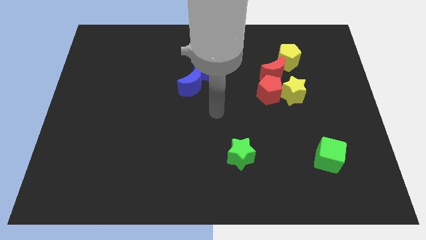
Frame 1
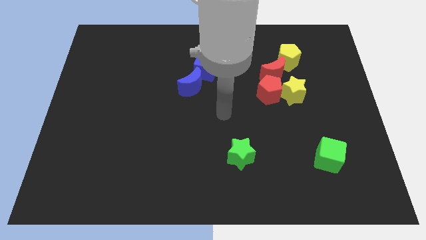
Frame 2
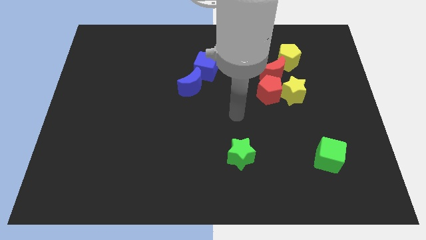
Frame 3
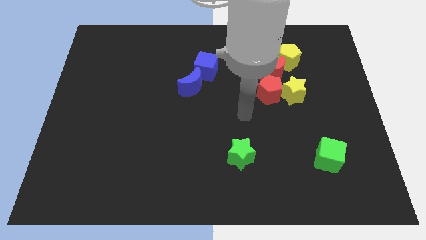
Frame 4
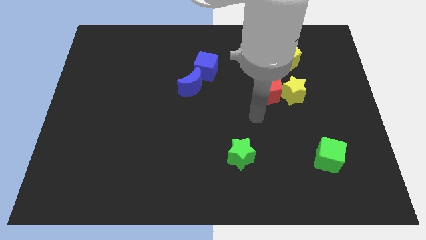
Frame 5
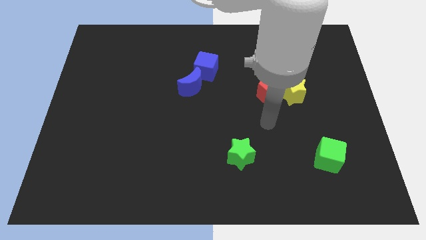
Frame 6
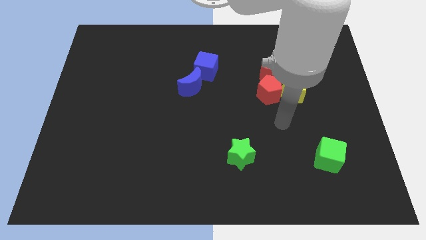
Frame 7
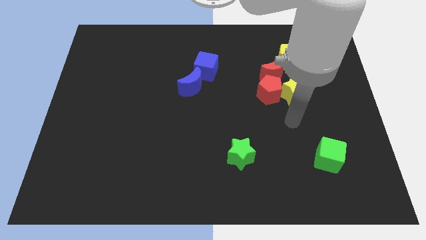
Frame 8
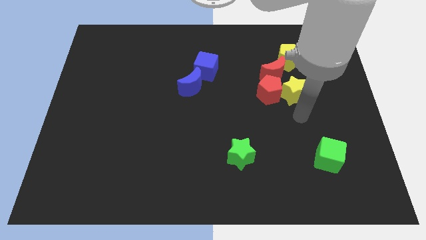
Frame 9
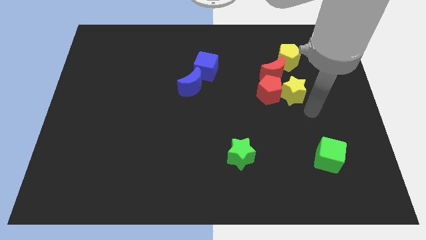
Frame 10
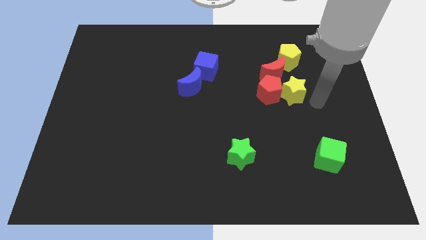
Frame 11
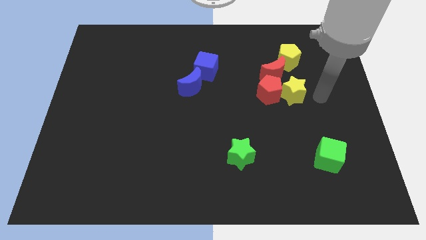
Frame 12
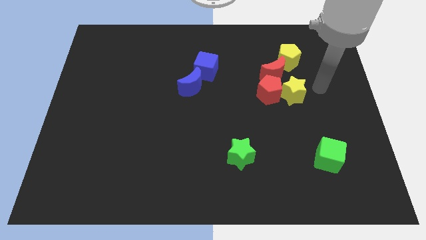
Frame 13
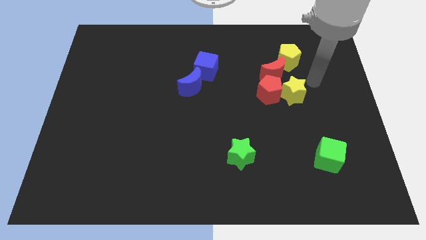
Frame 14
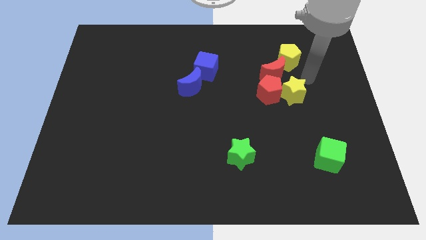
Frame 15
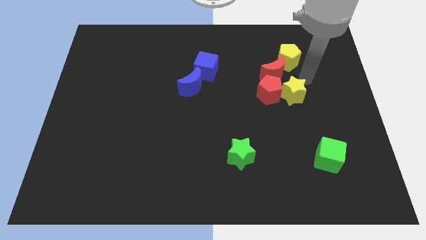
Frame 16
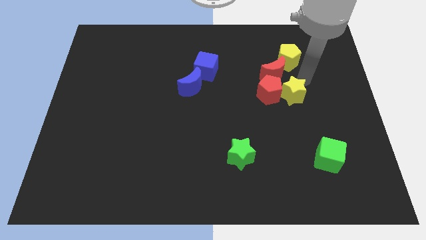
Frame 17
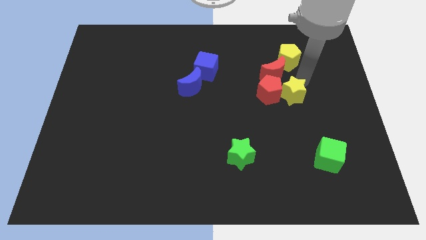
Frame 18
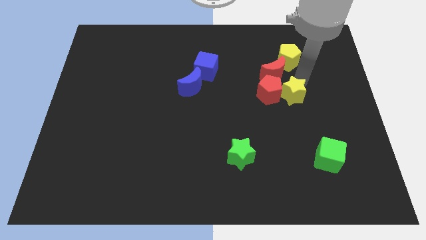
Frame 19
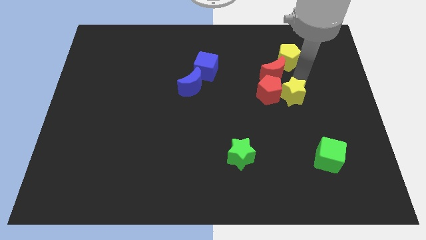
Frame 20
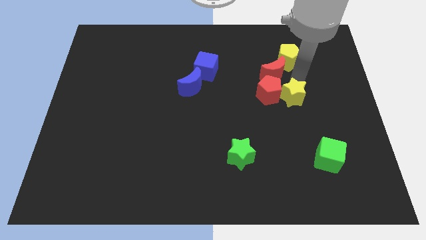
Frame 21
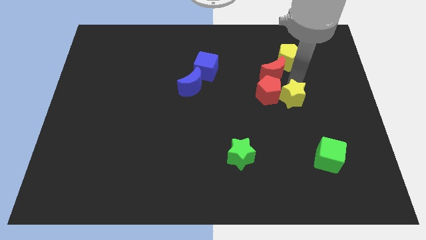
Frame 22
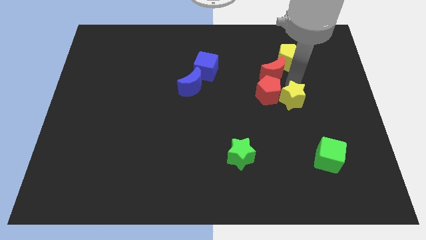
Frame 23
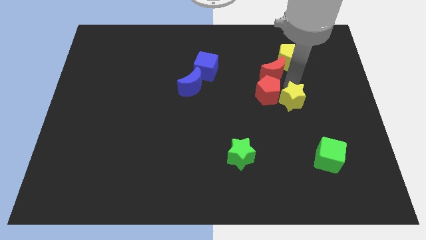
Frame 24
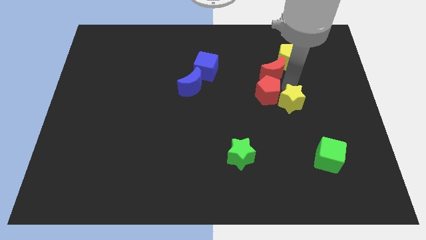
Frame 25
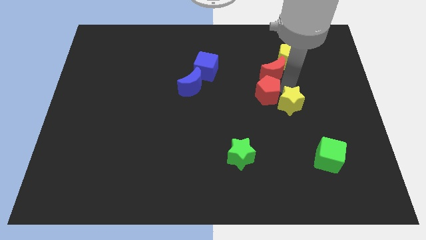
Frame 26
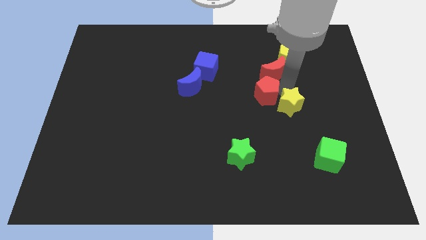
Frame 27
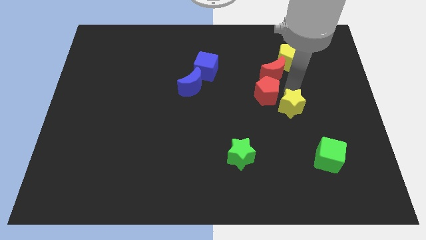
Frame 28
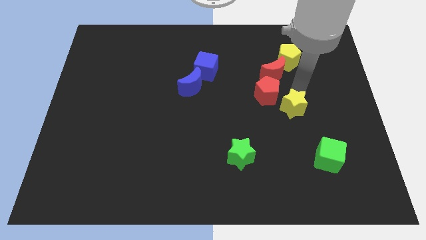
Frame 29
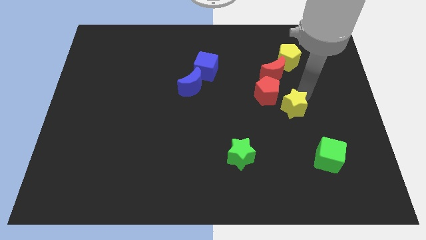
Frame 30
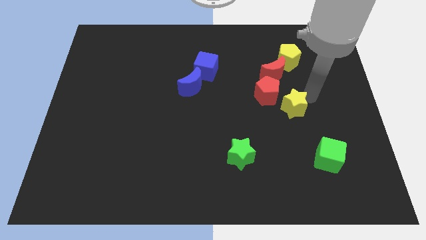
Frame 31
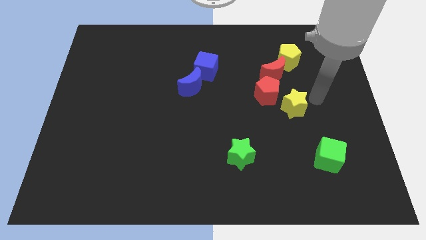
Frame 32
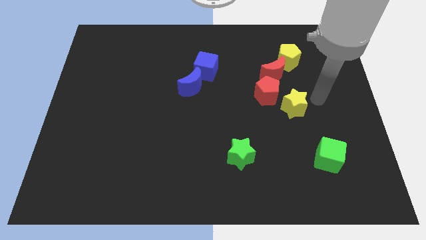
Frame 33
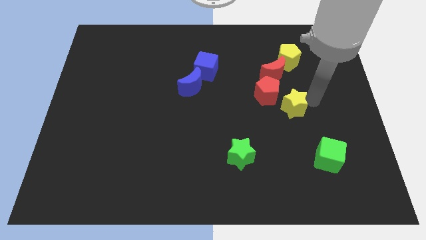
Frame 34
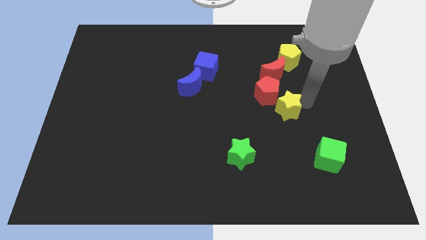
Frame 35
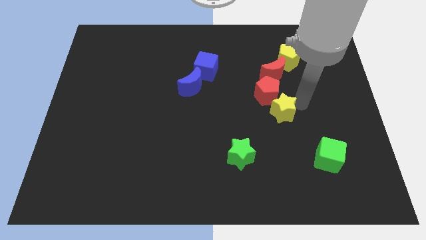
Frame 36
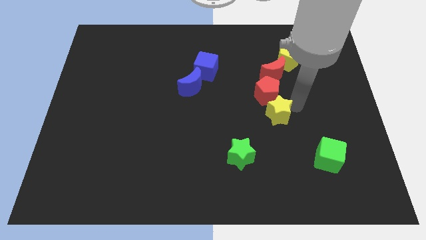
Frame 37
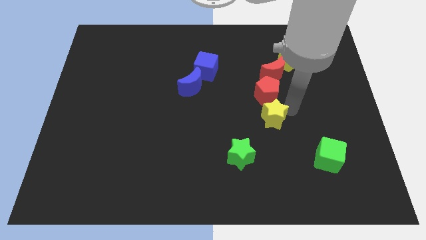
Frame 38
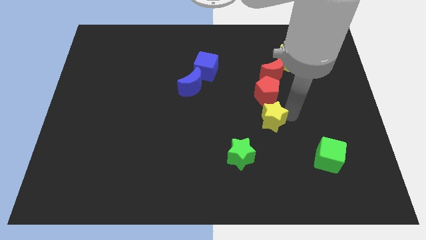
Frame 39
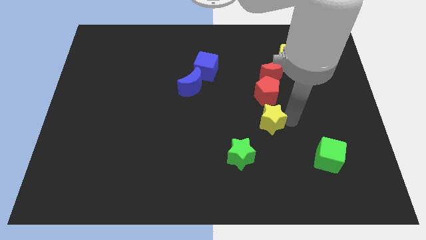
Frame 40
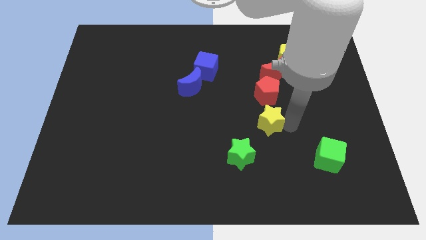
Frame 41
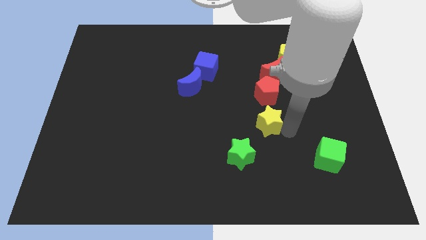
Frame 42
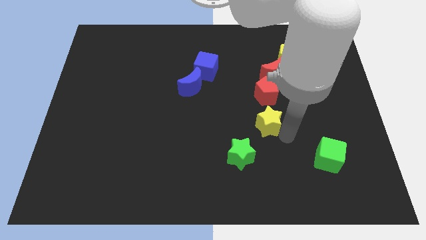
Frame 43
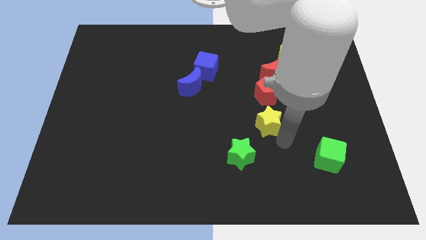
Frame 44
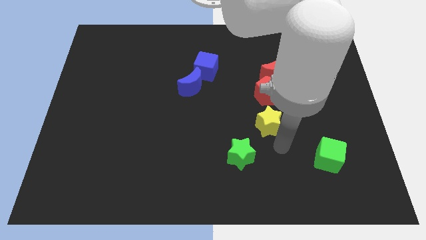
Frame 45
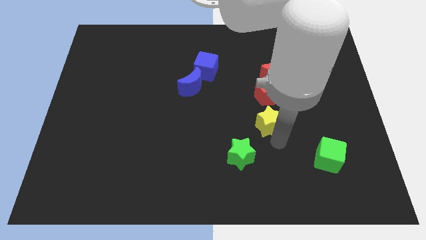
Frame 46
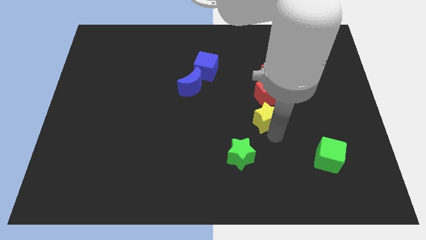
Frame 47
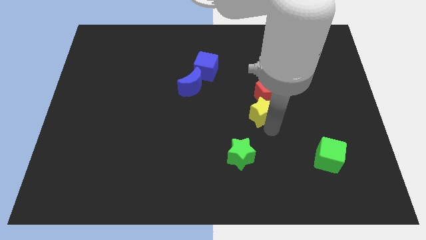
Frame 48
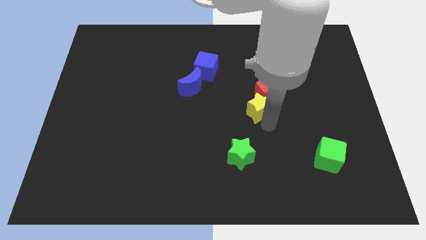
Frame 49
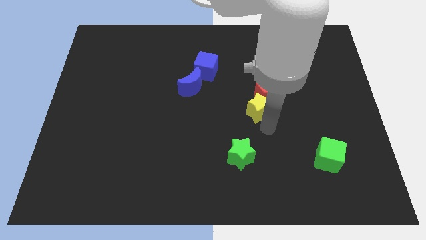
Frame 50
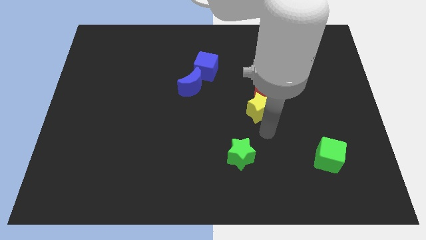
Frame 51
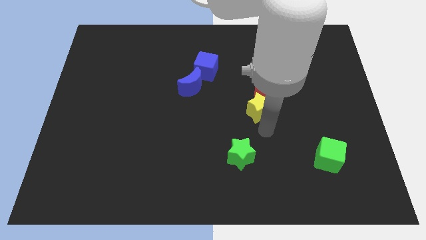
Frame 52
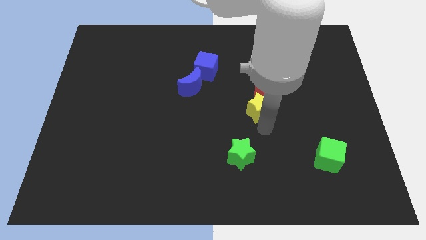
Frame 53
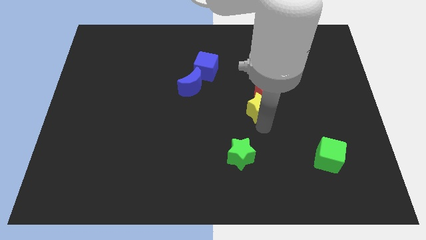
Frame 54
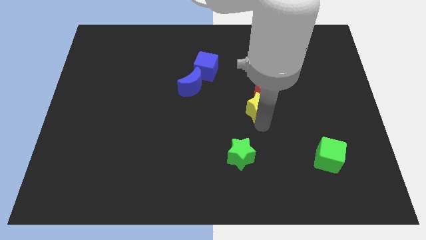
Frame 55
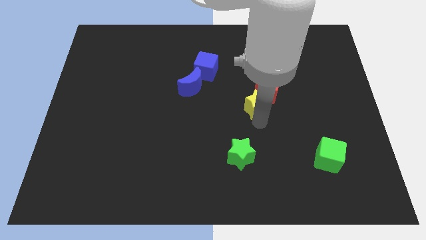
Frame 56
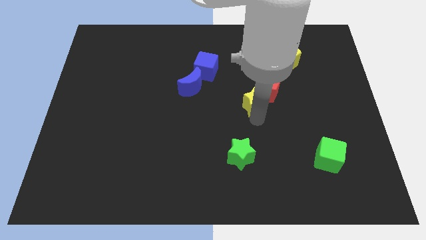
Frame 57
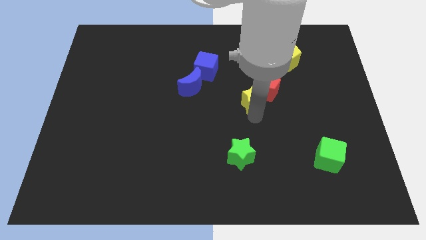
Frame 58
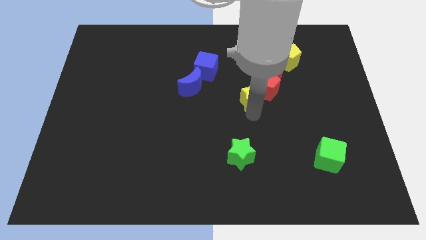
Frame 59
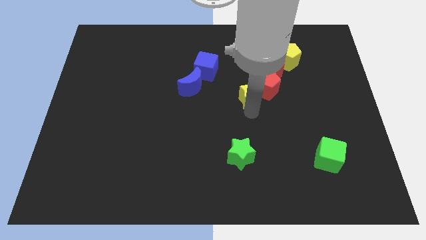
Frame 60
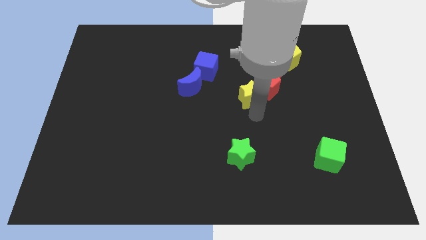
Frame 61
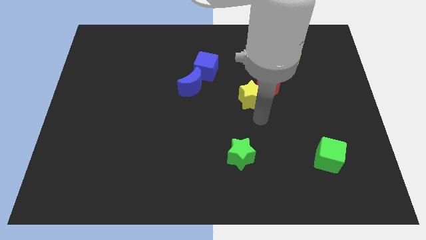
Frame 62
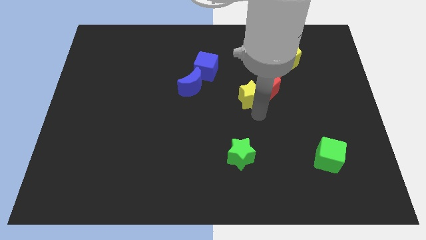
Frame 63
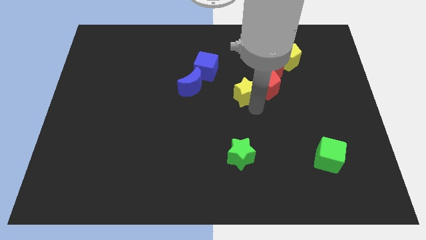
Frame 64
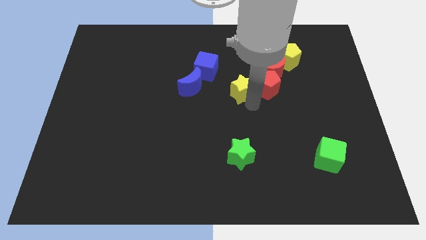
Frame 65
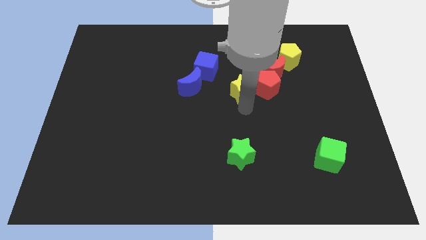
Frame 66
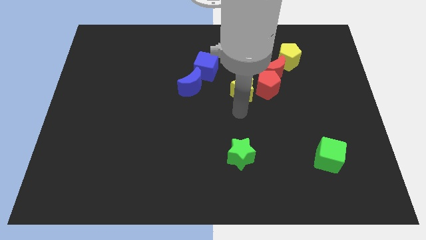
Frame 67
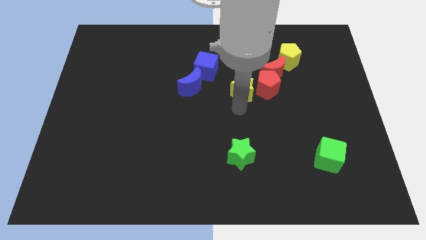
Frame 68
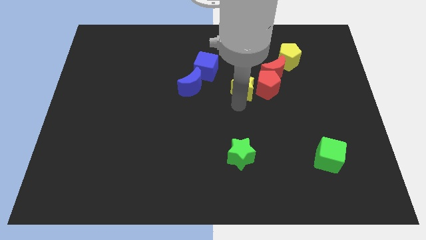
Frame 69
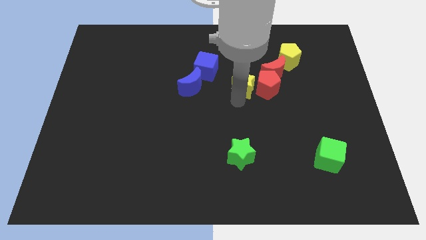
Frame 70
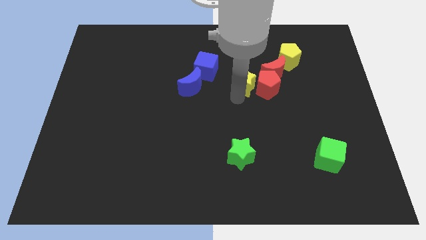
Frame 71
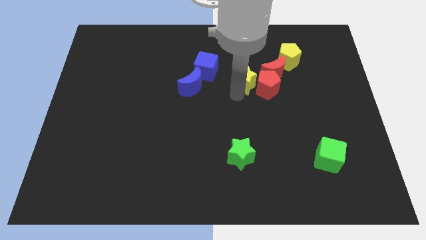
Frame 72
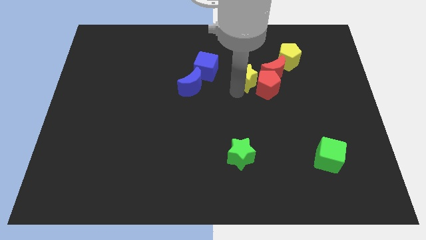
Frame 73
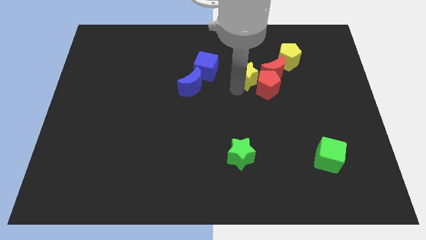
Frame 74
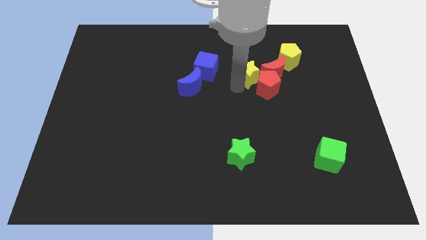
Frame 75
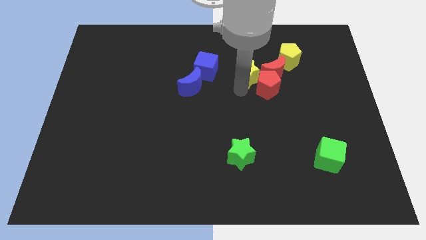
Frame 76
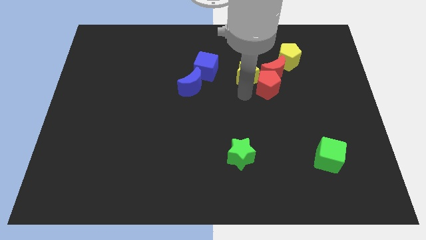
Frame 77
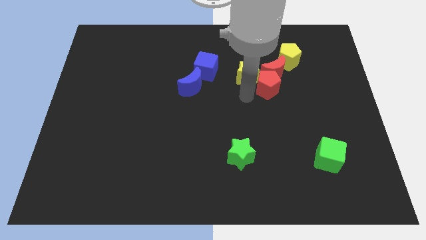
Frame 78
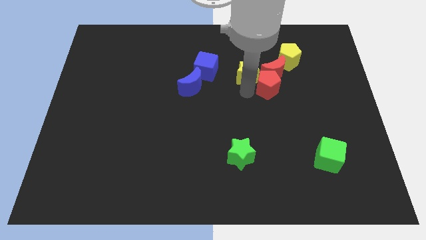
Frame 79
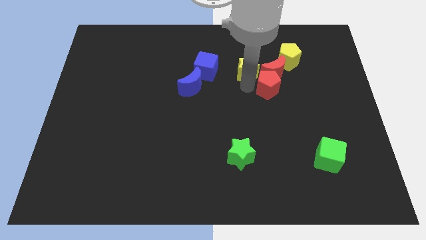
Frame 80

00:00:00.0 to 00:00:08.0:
slide the yellow star to the left of the yellow pentagon
